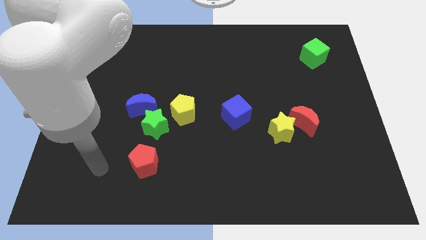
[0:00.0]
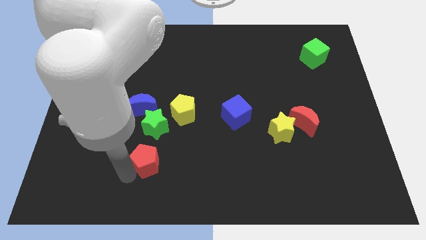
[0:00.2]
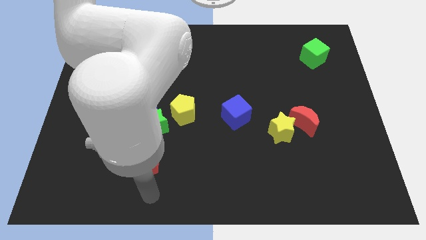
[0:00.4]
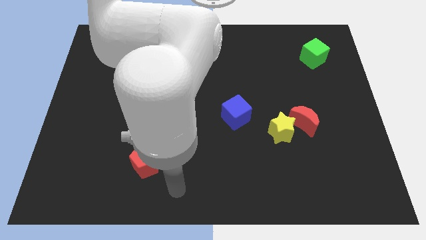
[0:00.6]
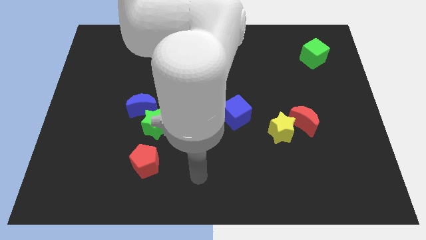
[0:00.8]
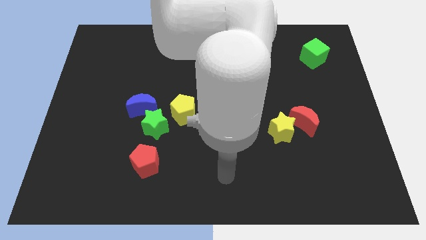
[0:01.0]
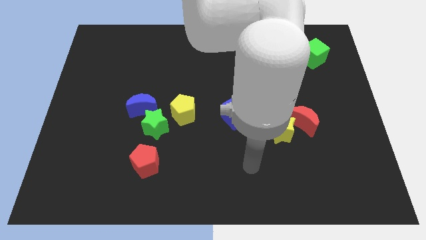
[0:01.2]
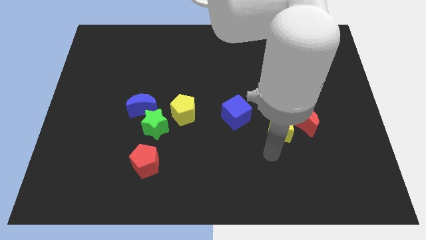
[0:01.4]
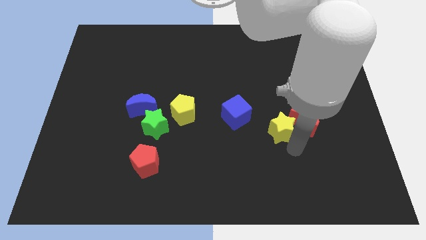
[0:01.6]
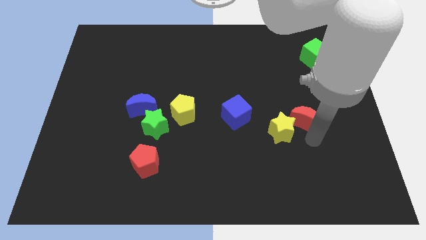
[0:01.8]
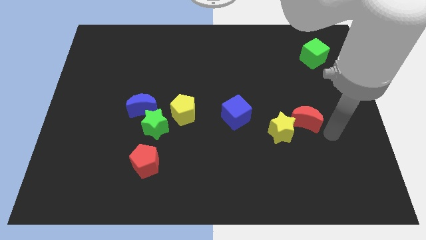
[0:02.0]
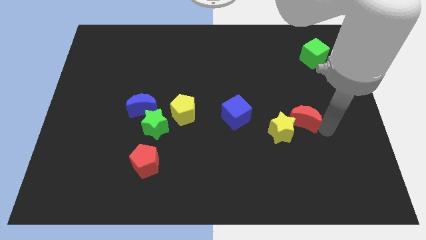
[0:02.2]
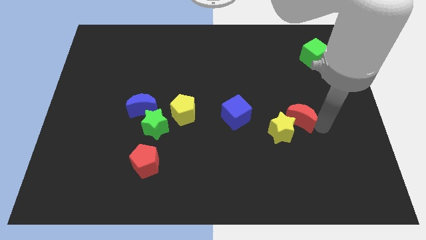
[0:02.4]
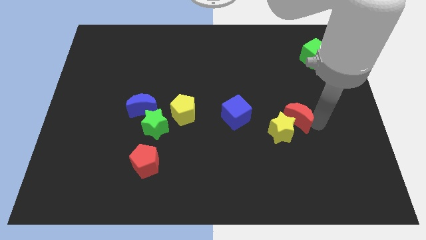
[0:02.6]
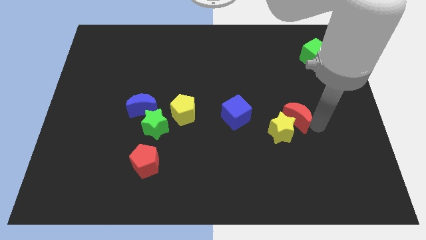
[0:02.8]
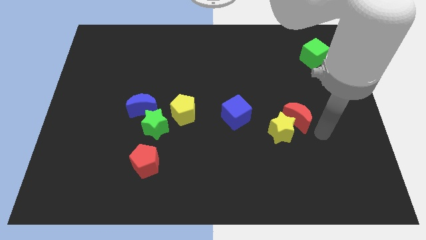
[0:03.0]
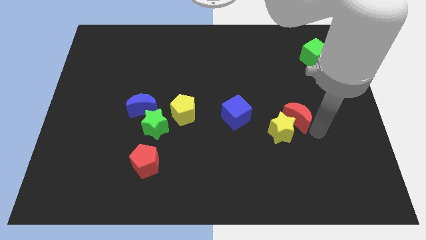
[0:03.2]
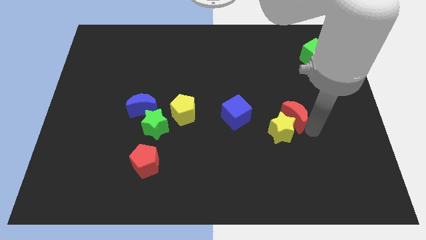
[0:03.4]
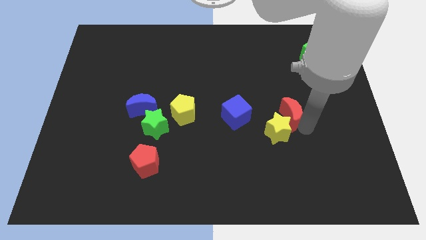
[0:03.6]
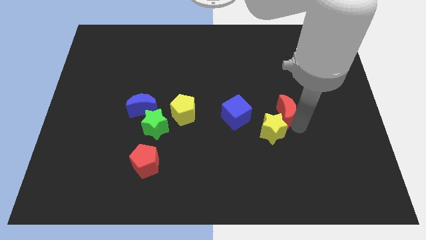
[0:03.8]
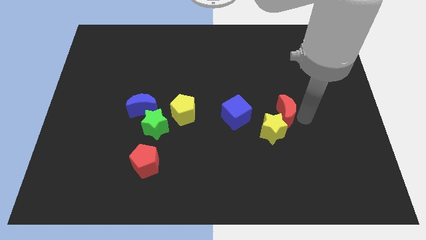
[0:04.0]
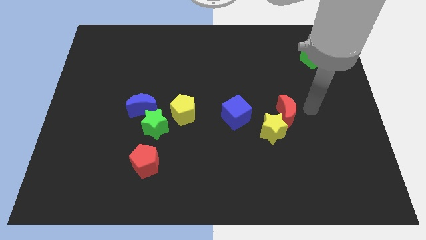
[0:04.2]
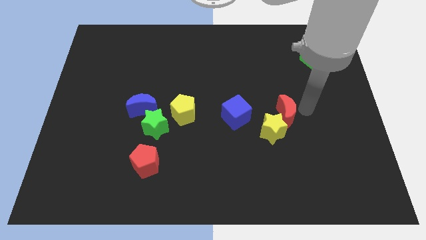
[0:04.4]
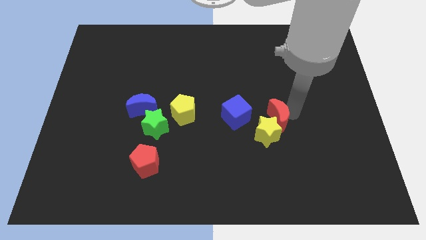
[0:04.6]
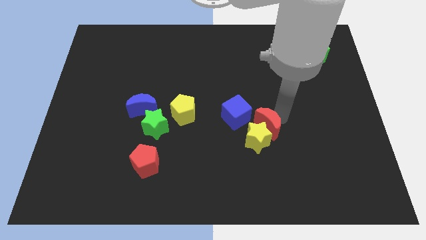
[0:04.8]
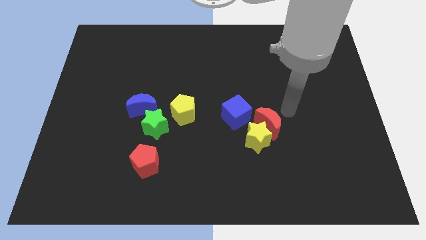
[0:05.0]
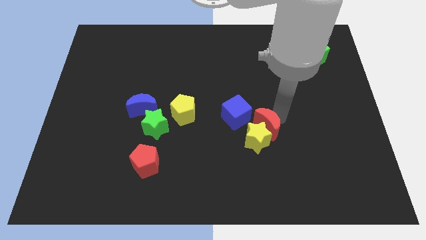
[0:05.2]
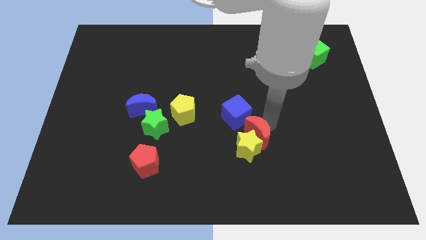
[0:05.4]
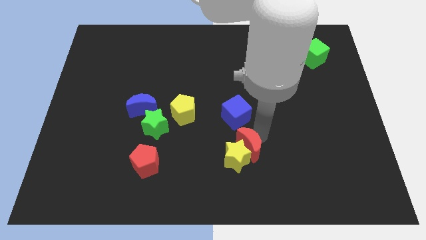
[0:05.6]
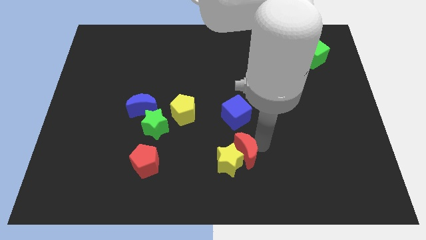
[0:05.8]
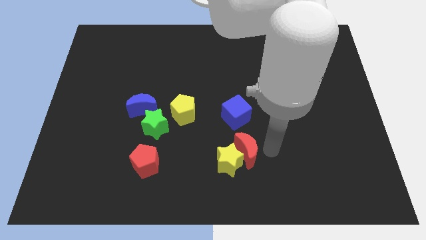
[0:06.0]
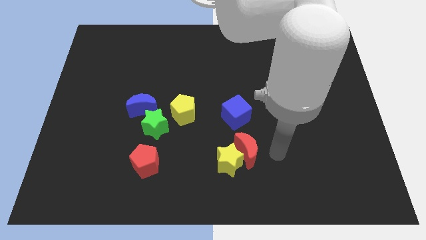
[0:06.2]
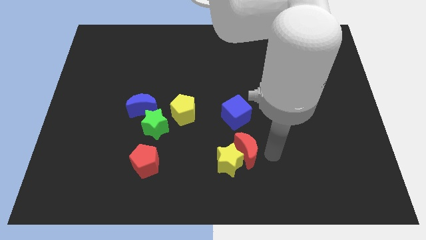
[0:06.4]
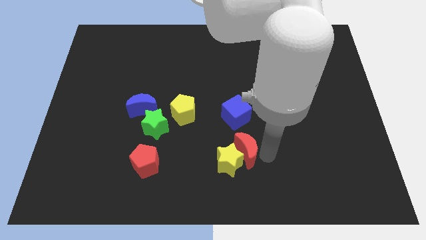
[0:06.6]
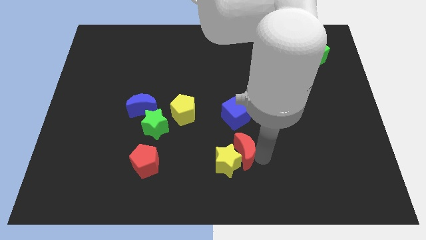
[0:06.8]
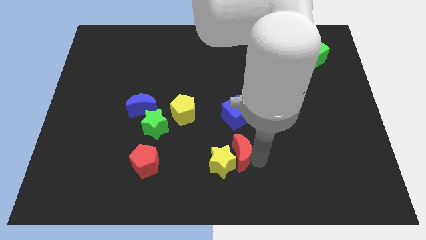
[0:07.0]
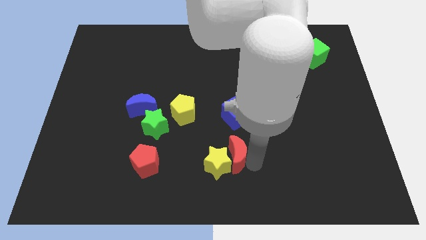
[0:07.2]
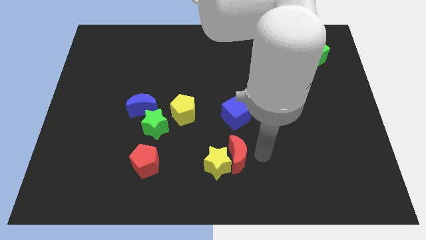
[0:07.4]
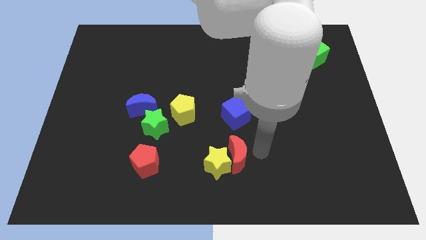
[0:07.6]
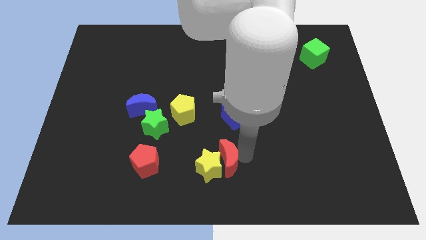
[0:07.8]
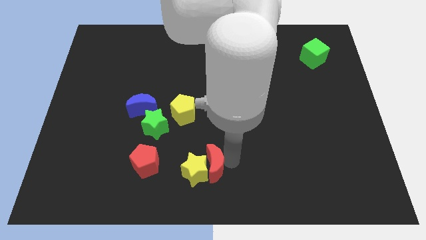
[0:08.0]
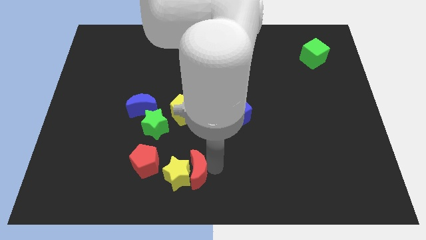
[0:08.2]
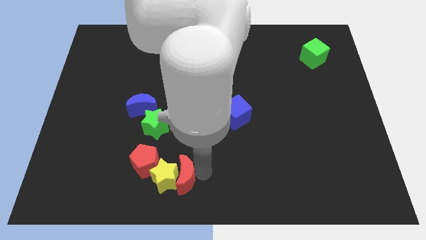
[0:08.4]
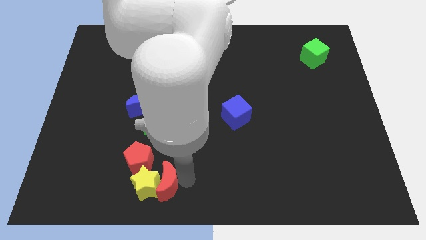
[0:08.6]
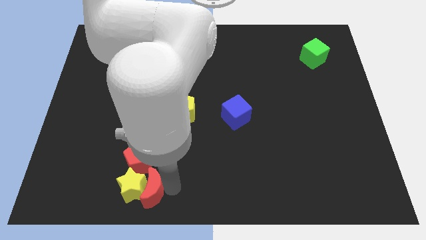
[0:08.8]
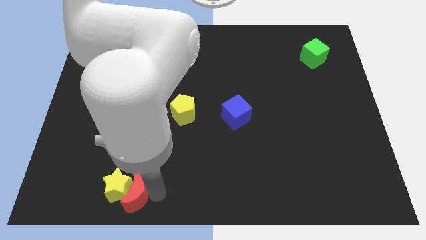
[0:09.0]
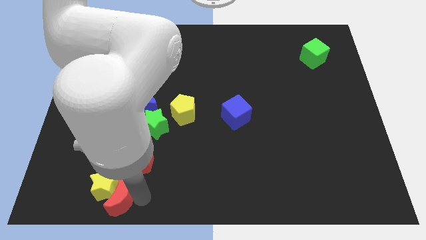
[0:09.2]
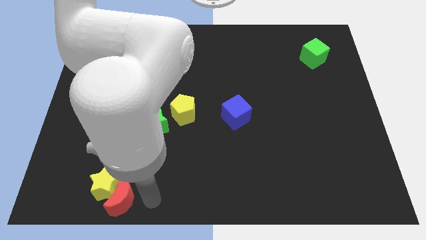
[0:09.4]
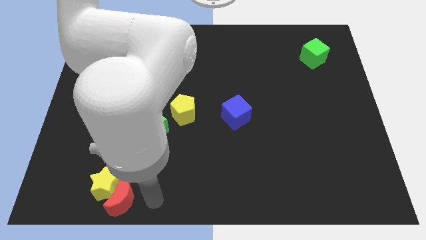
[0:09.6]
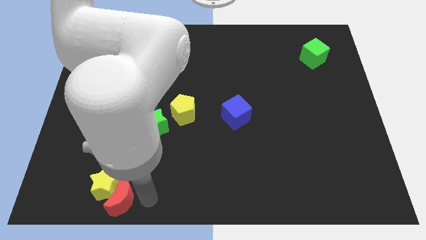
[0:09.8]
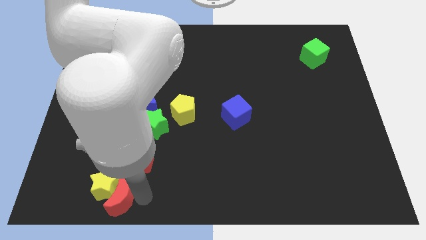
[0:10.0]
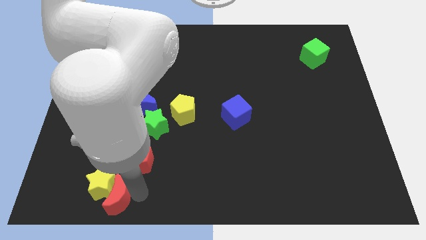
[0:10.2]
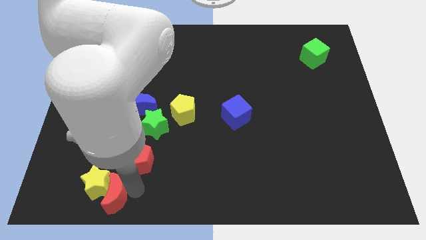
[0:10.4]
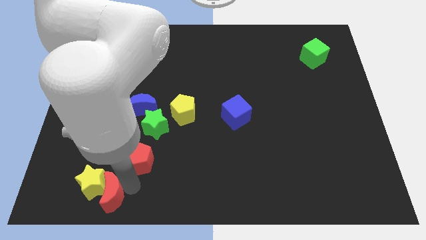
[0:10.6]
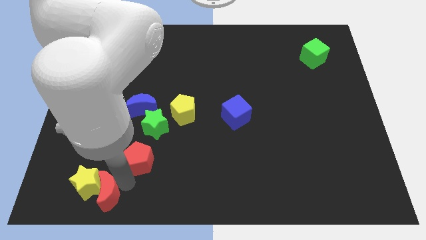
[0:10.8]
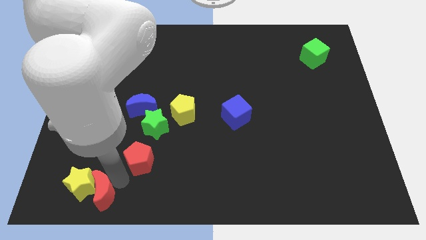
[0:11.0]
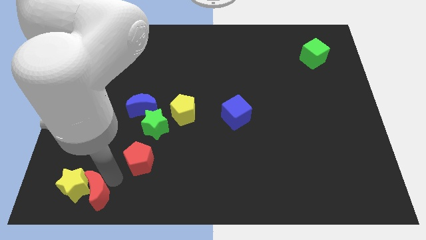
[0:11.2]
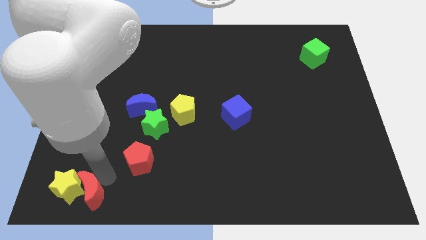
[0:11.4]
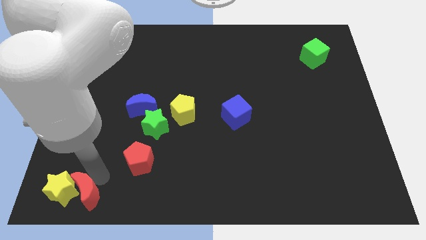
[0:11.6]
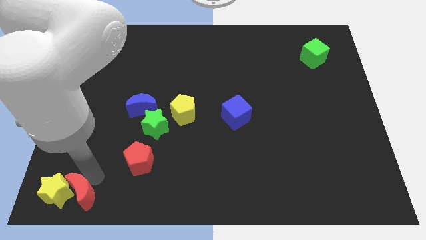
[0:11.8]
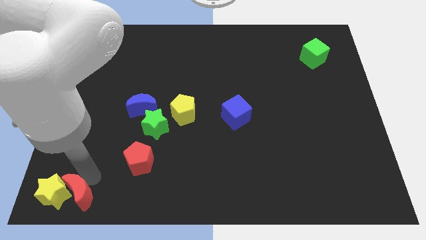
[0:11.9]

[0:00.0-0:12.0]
put the red moon to the bottom left corner
